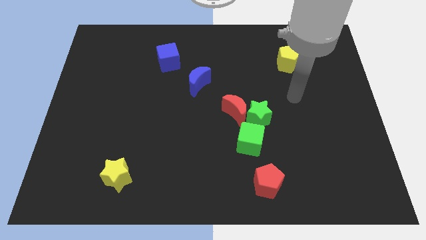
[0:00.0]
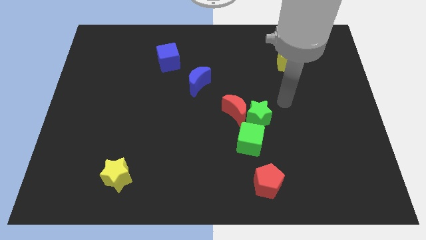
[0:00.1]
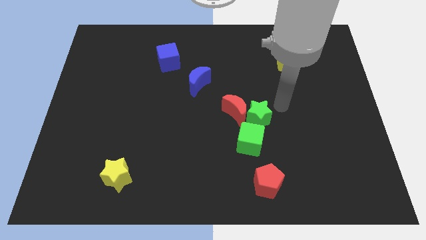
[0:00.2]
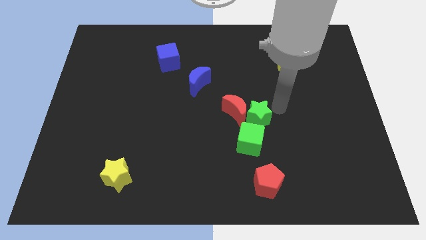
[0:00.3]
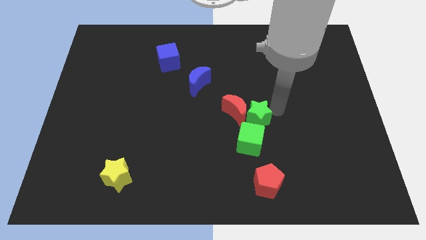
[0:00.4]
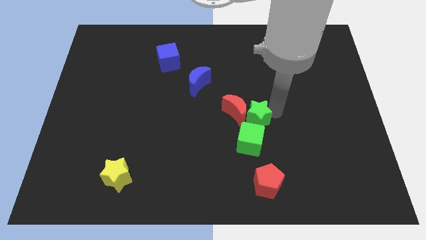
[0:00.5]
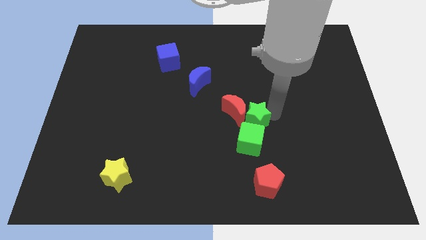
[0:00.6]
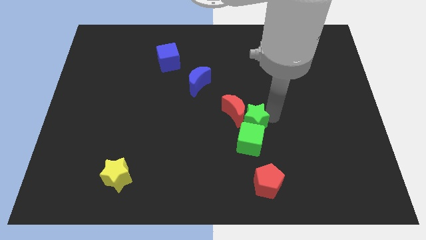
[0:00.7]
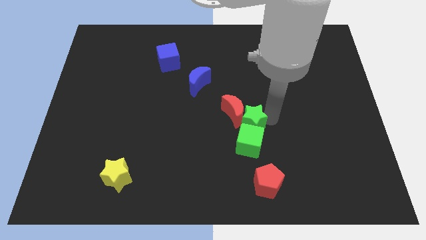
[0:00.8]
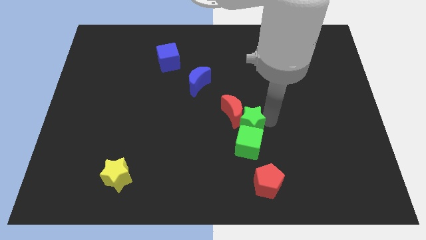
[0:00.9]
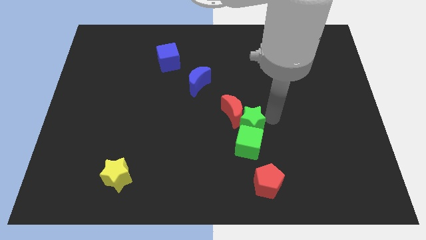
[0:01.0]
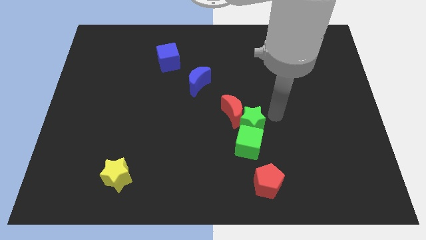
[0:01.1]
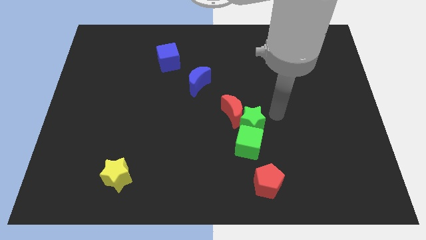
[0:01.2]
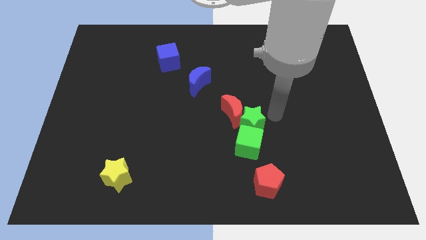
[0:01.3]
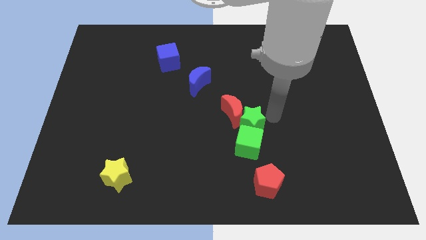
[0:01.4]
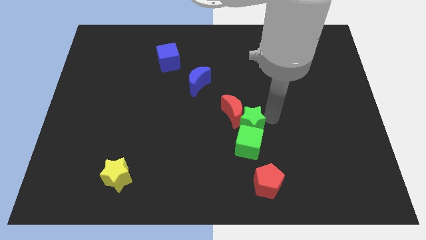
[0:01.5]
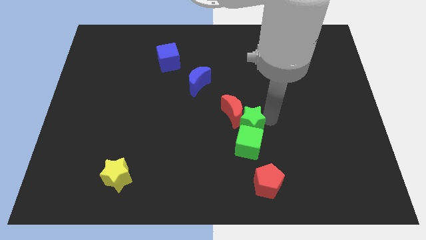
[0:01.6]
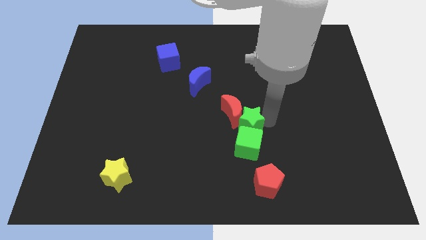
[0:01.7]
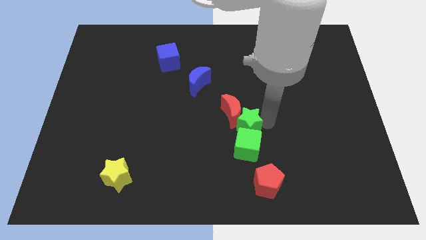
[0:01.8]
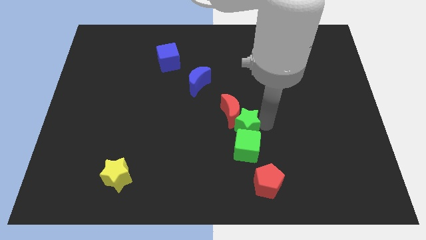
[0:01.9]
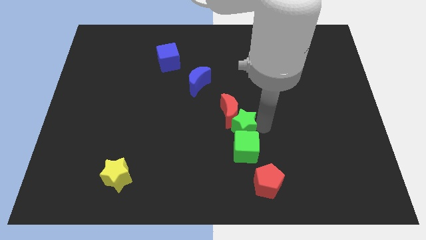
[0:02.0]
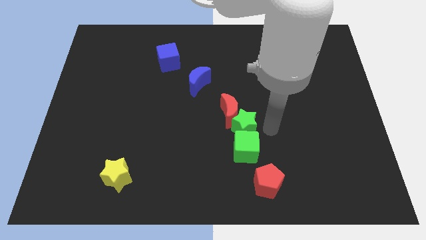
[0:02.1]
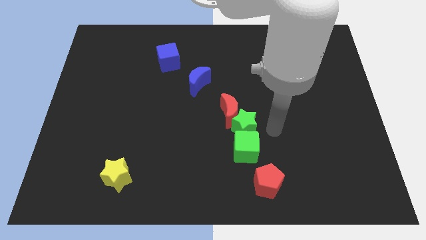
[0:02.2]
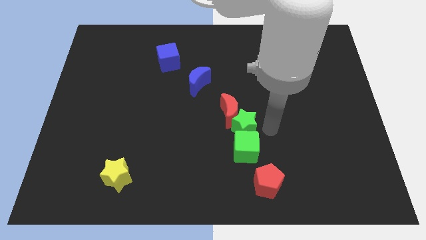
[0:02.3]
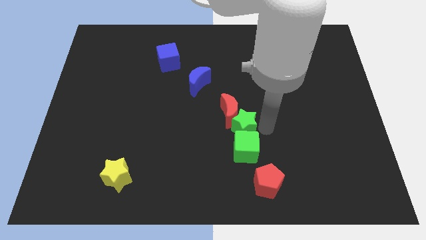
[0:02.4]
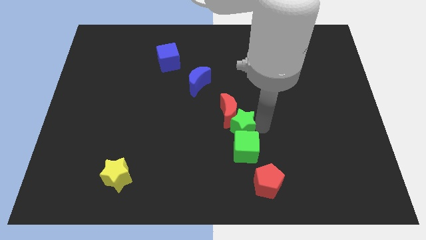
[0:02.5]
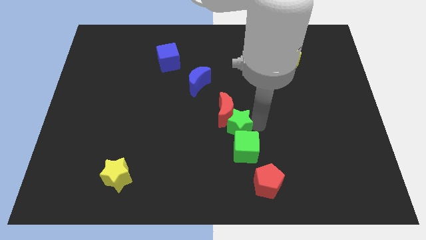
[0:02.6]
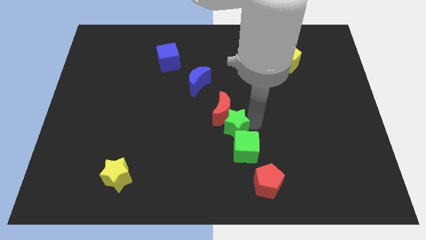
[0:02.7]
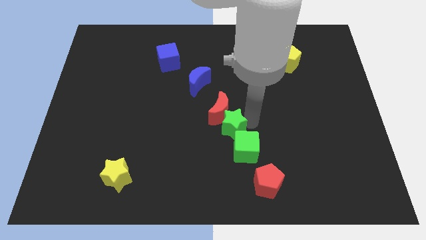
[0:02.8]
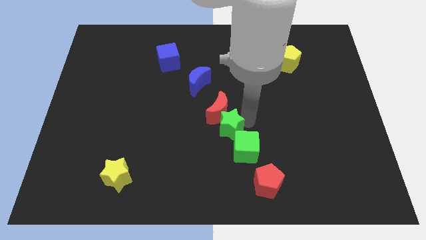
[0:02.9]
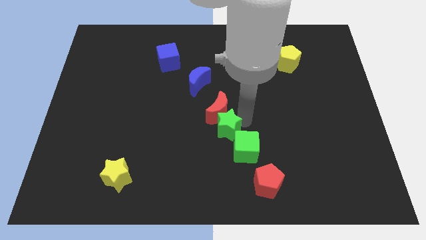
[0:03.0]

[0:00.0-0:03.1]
push the green star a little to the left

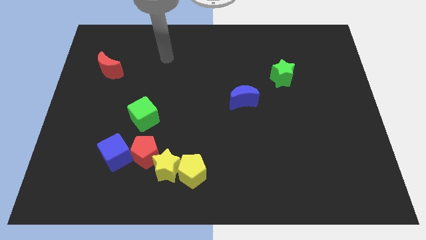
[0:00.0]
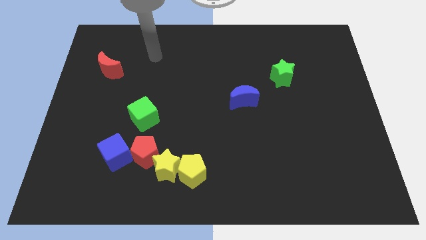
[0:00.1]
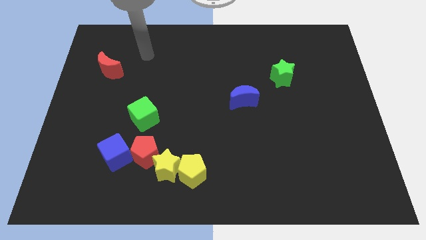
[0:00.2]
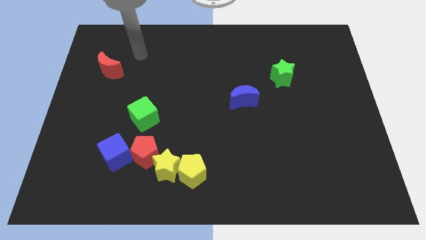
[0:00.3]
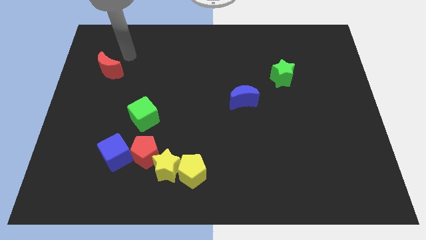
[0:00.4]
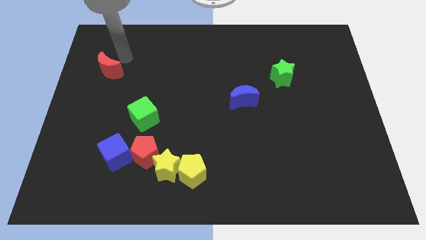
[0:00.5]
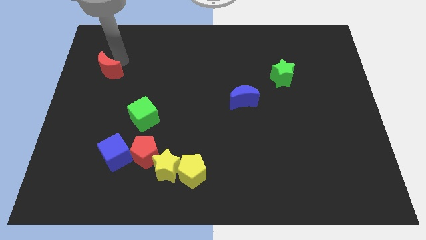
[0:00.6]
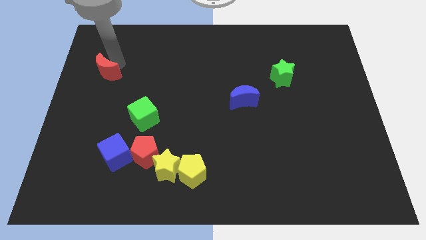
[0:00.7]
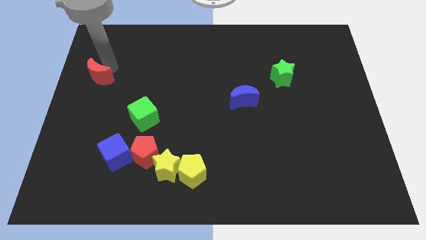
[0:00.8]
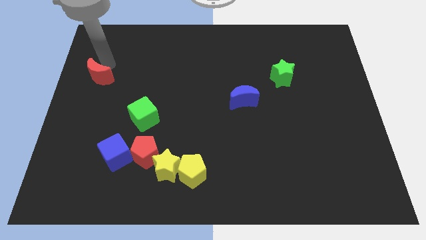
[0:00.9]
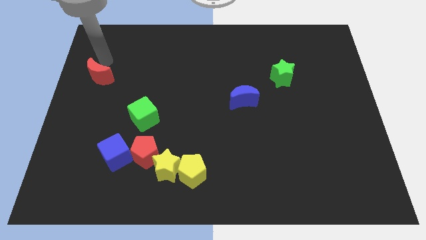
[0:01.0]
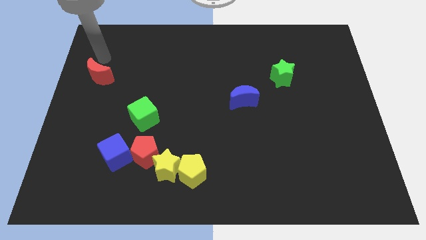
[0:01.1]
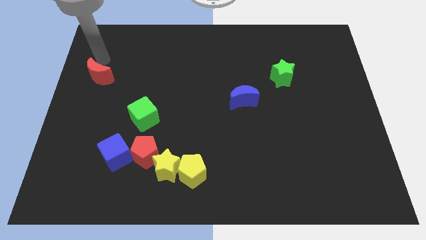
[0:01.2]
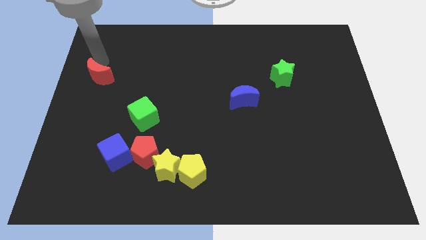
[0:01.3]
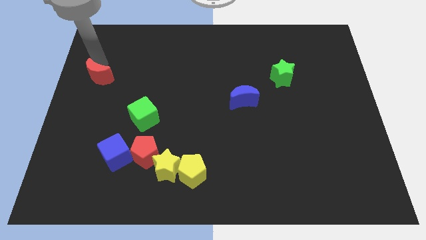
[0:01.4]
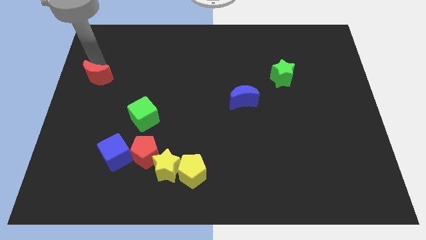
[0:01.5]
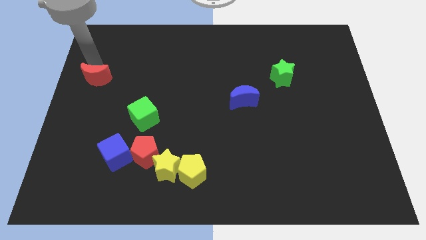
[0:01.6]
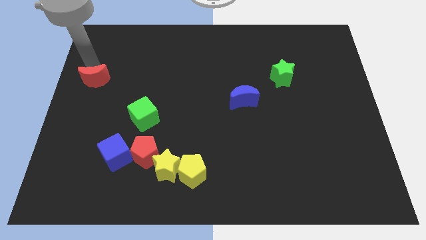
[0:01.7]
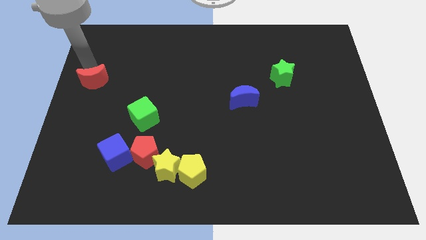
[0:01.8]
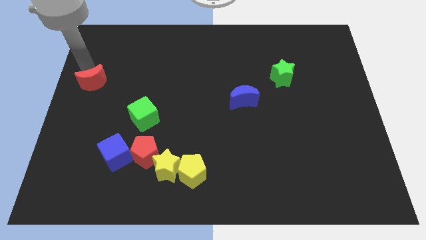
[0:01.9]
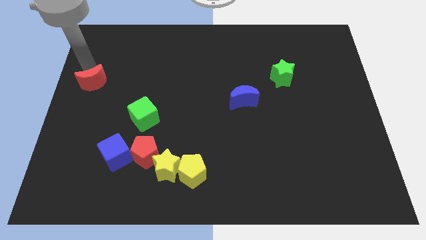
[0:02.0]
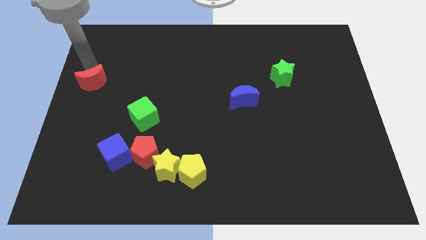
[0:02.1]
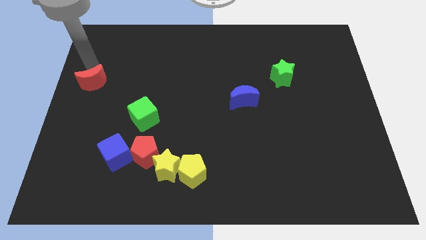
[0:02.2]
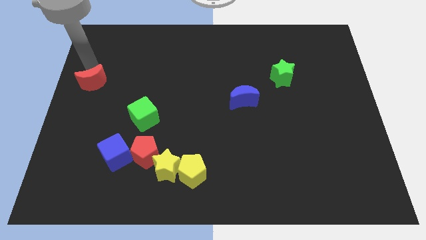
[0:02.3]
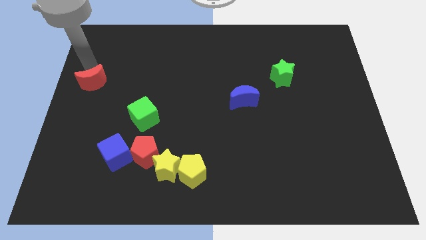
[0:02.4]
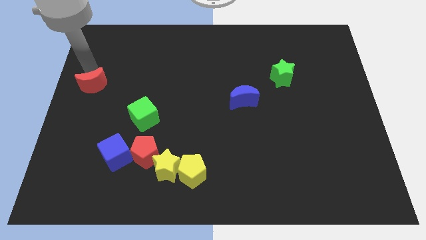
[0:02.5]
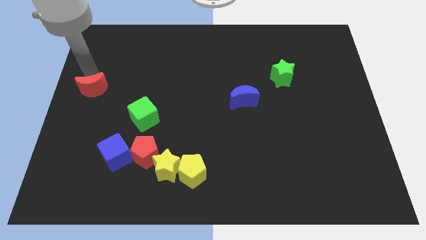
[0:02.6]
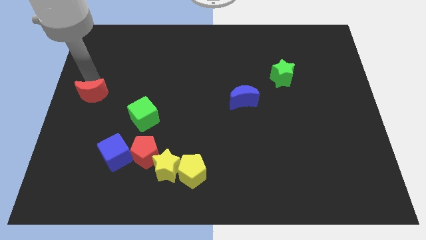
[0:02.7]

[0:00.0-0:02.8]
slightly push the red moon downwards

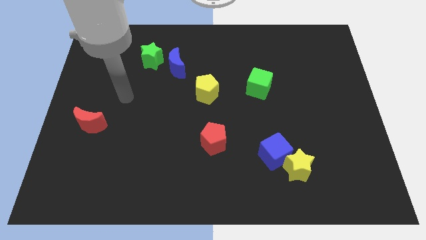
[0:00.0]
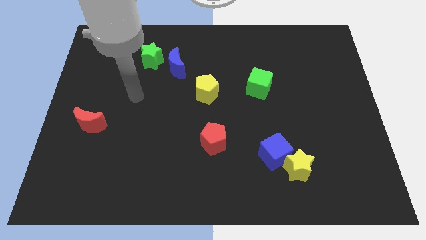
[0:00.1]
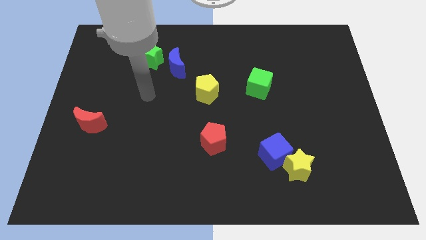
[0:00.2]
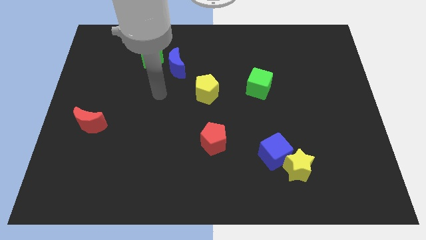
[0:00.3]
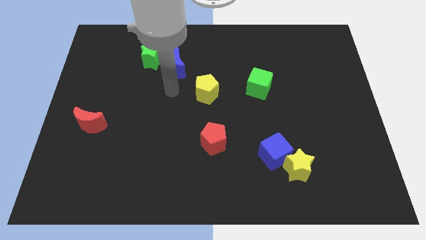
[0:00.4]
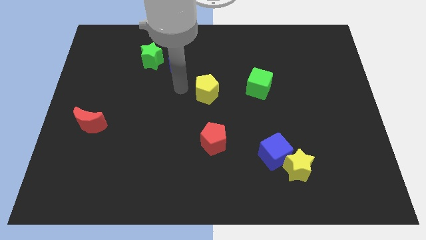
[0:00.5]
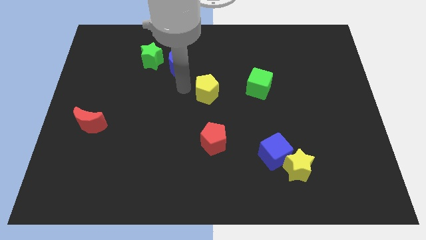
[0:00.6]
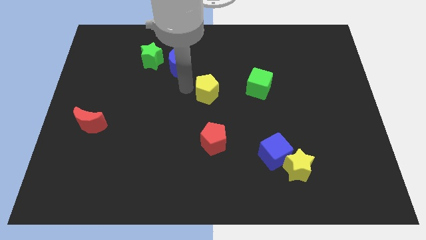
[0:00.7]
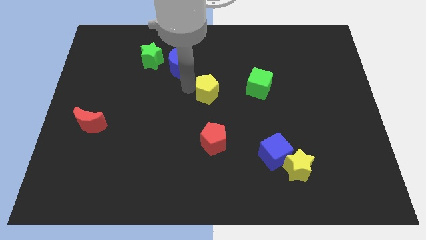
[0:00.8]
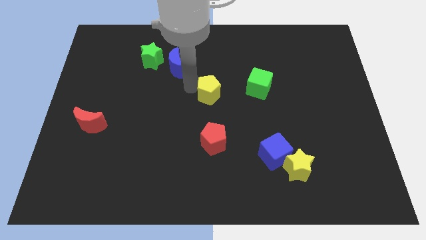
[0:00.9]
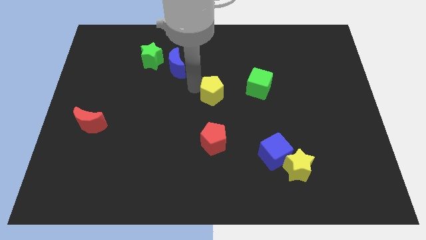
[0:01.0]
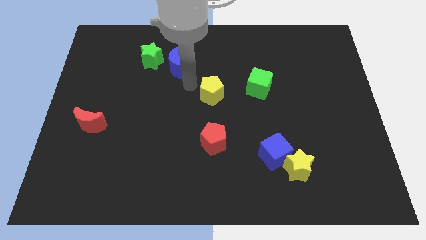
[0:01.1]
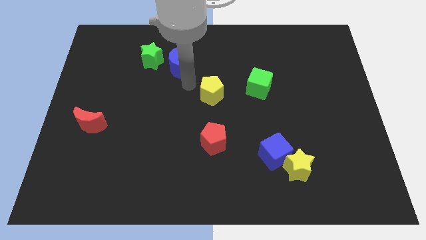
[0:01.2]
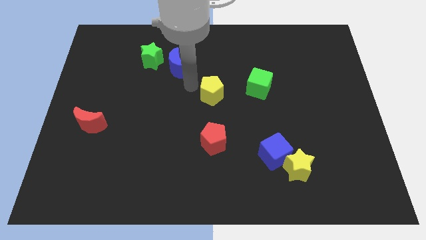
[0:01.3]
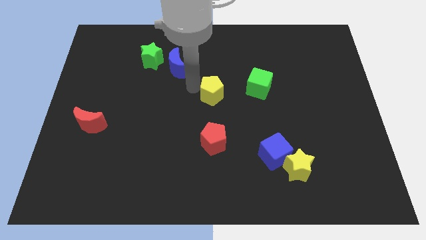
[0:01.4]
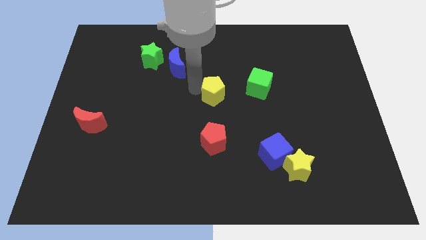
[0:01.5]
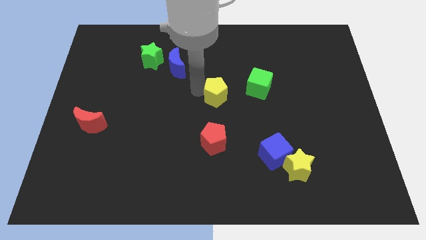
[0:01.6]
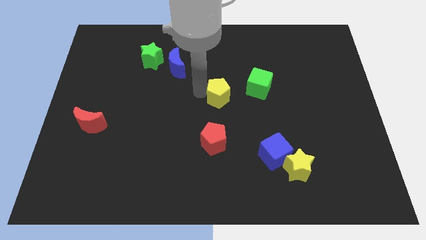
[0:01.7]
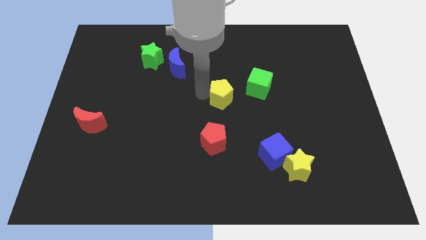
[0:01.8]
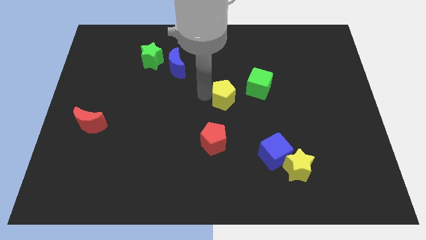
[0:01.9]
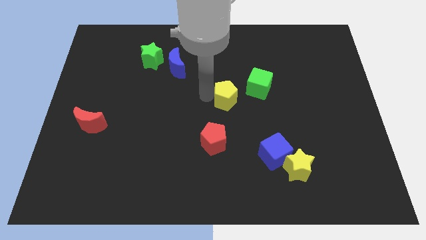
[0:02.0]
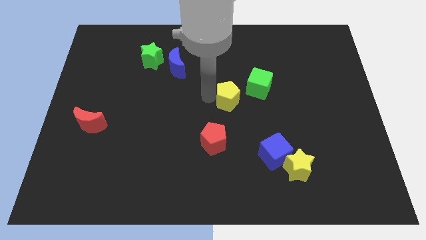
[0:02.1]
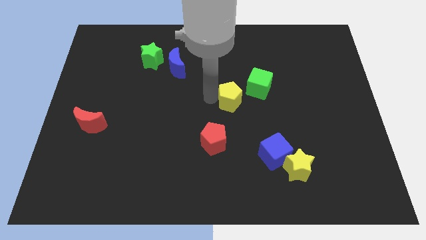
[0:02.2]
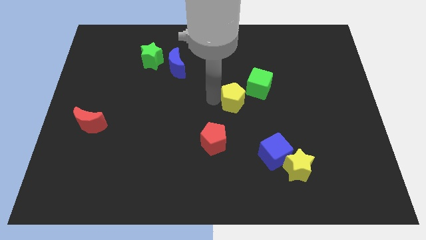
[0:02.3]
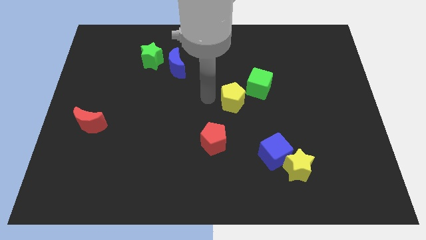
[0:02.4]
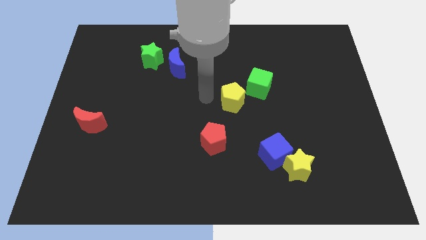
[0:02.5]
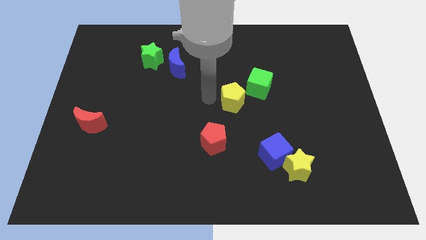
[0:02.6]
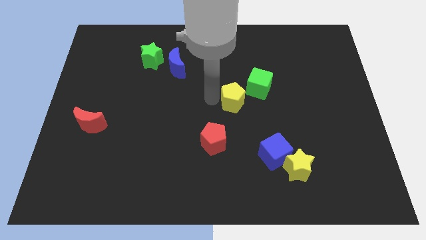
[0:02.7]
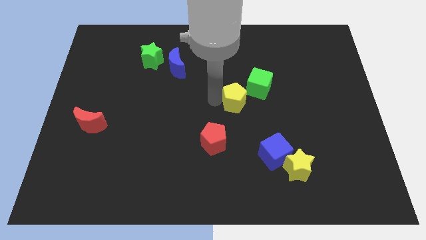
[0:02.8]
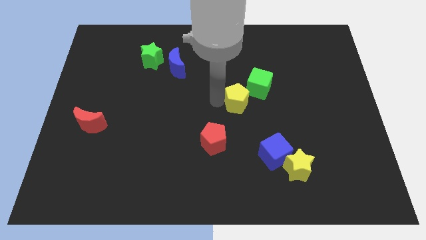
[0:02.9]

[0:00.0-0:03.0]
push the yellow pentagon somewhat to the right
